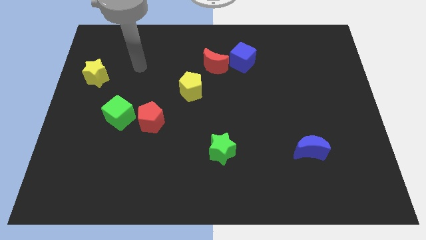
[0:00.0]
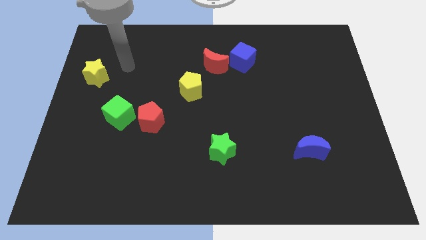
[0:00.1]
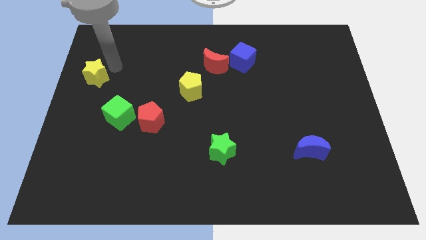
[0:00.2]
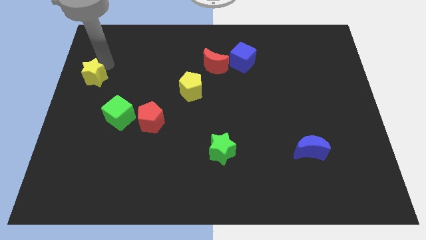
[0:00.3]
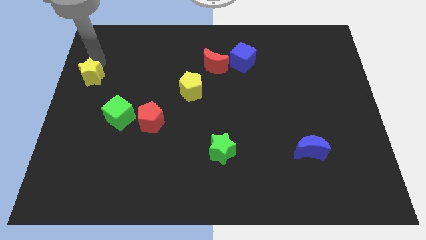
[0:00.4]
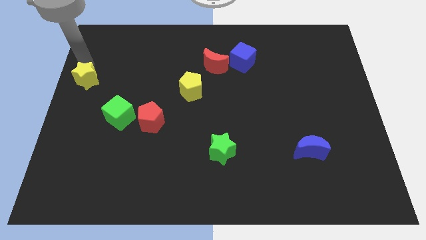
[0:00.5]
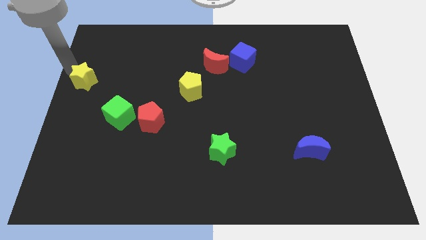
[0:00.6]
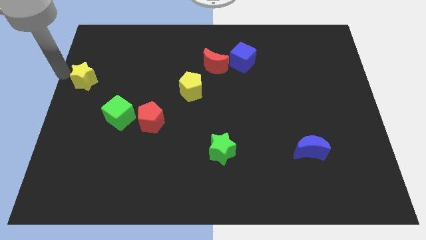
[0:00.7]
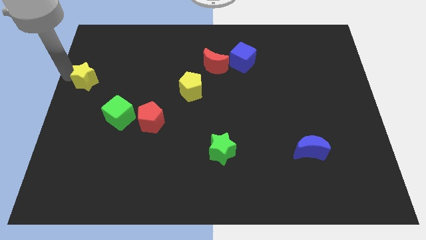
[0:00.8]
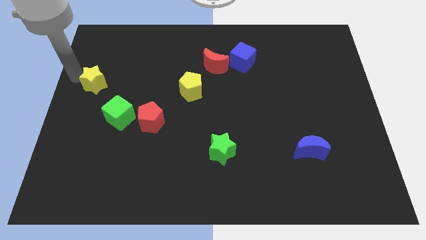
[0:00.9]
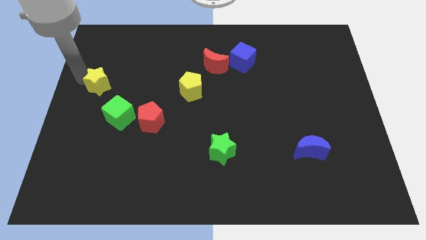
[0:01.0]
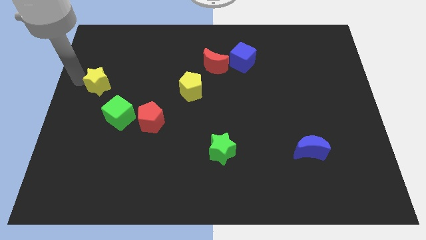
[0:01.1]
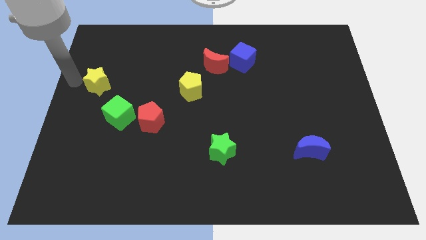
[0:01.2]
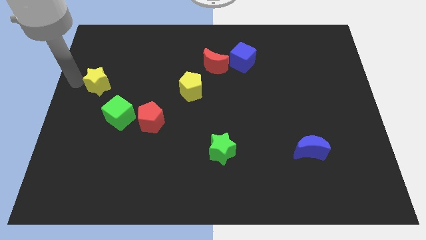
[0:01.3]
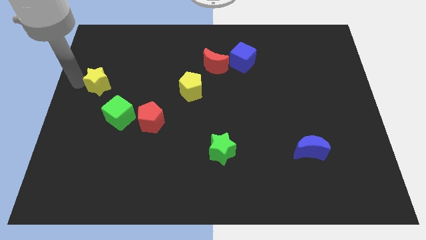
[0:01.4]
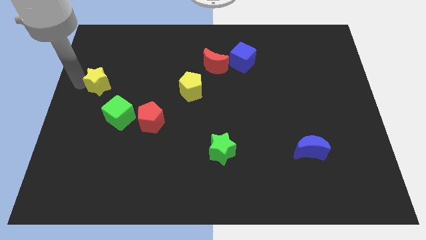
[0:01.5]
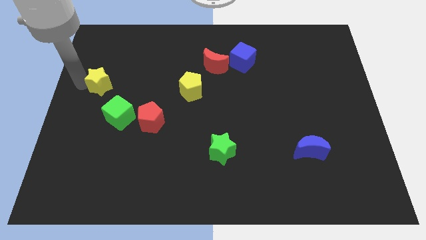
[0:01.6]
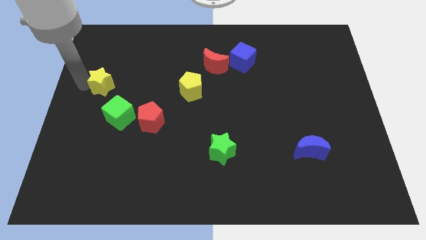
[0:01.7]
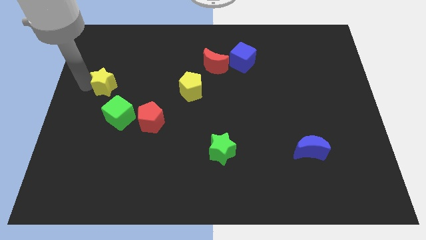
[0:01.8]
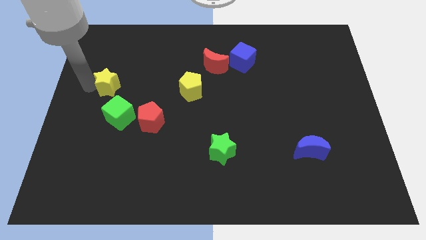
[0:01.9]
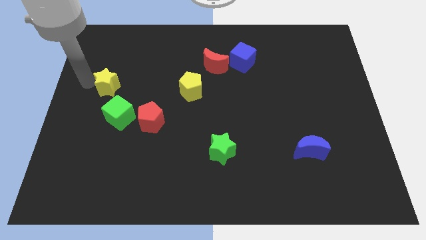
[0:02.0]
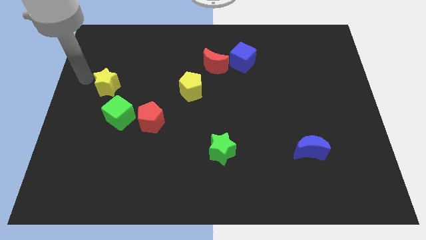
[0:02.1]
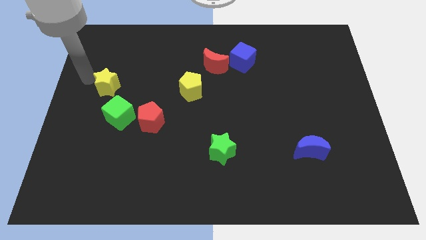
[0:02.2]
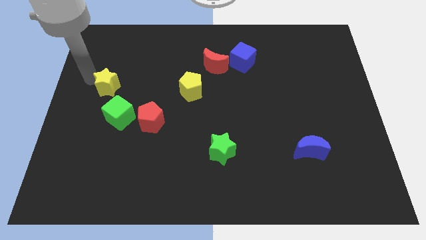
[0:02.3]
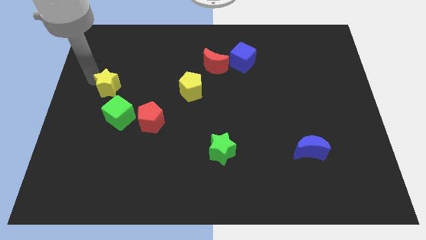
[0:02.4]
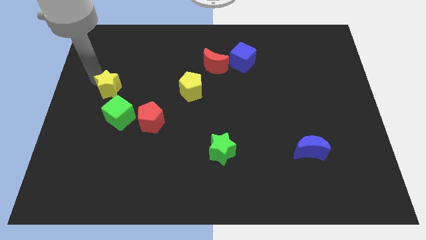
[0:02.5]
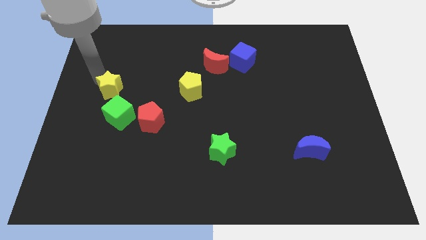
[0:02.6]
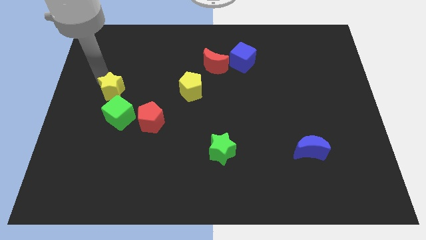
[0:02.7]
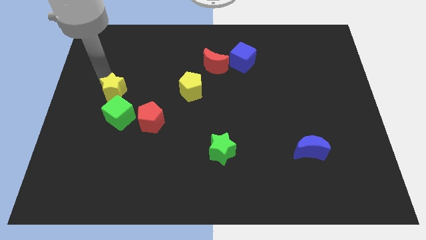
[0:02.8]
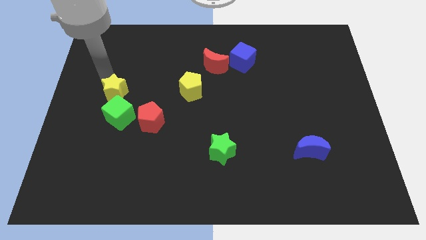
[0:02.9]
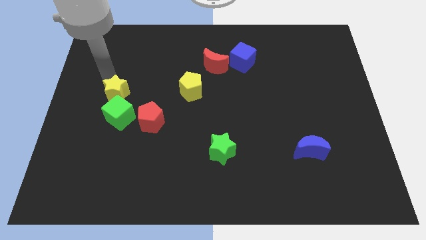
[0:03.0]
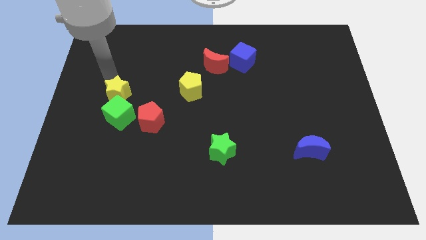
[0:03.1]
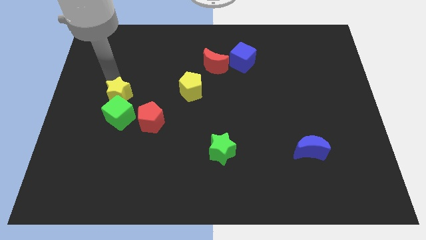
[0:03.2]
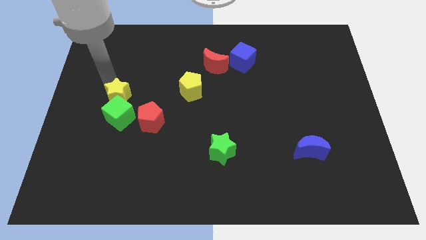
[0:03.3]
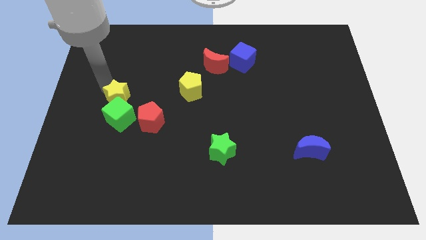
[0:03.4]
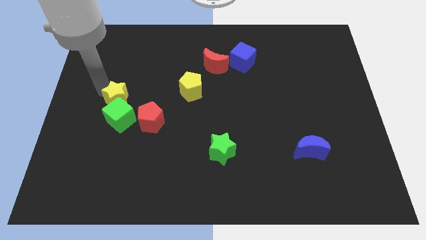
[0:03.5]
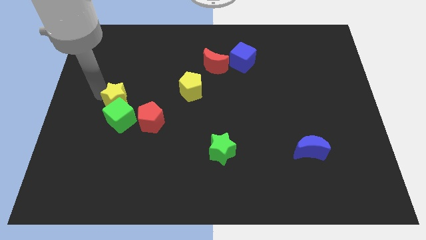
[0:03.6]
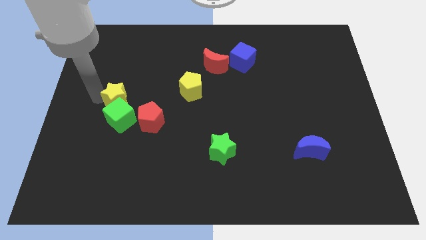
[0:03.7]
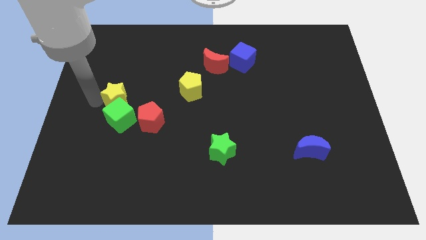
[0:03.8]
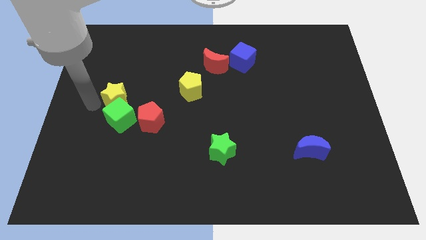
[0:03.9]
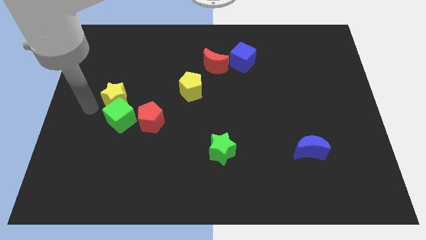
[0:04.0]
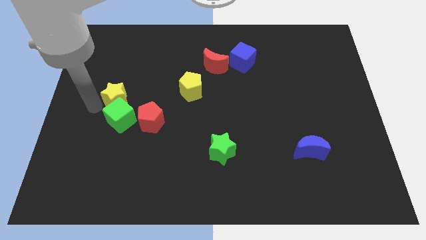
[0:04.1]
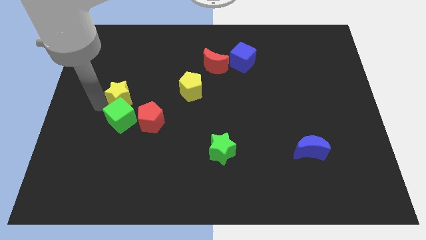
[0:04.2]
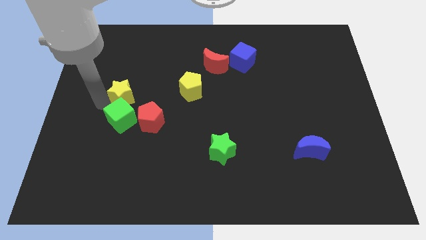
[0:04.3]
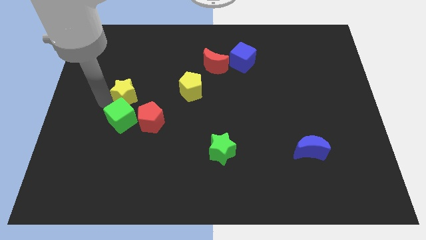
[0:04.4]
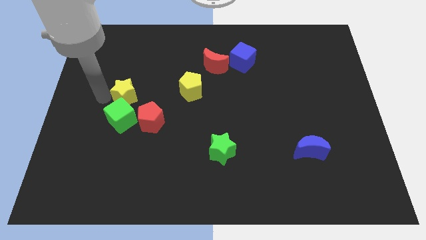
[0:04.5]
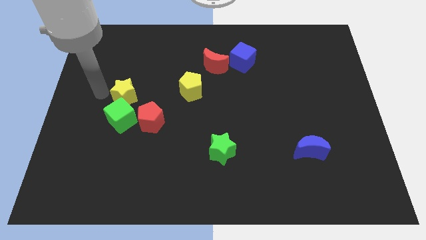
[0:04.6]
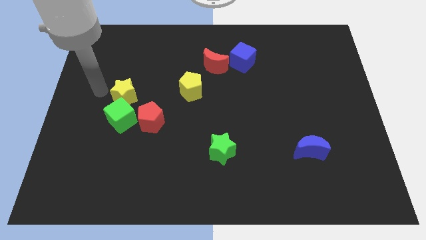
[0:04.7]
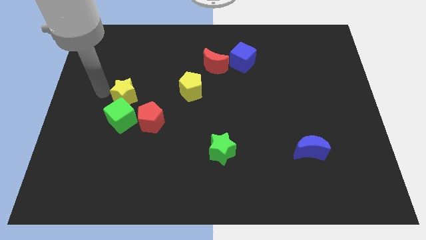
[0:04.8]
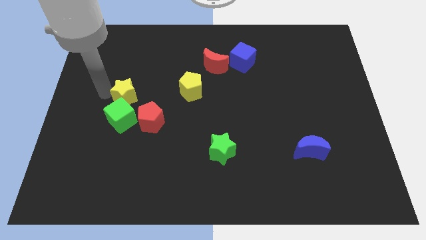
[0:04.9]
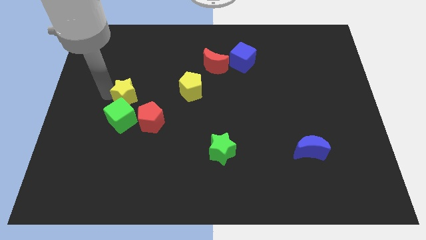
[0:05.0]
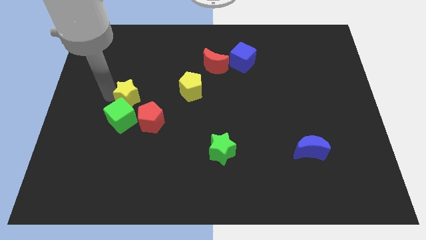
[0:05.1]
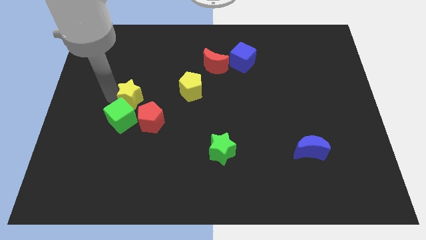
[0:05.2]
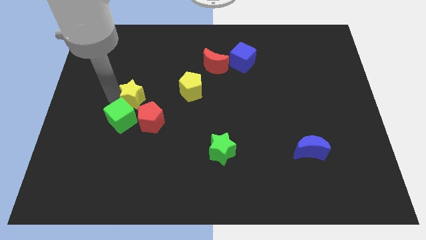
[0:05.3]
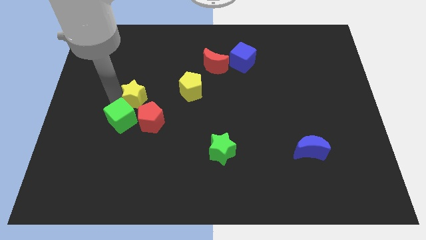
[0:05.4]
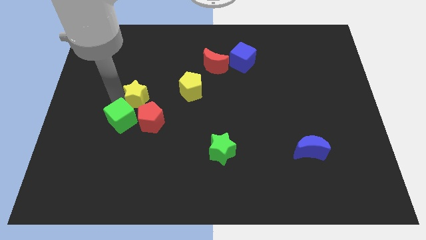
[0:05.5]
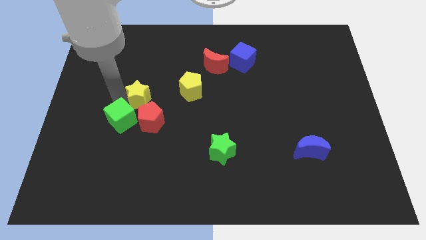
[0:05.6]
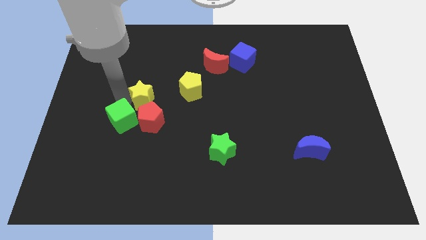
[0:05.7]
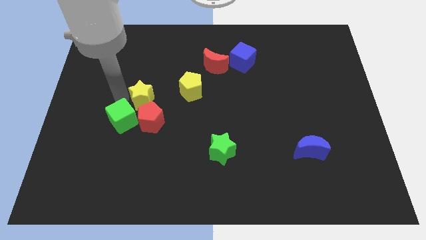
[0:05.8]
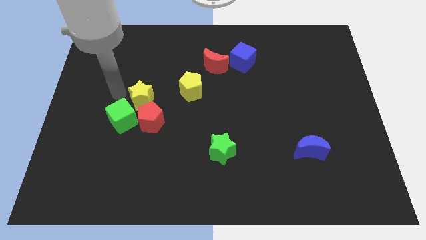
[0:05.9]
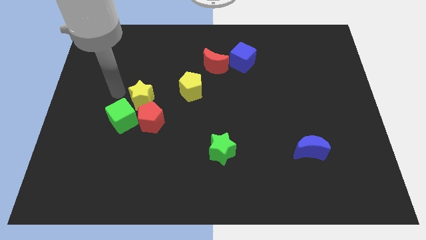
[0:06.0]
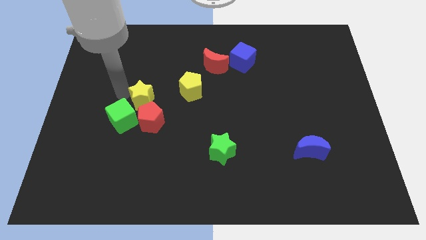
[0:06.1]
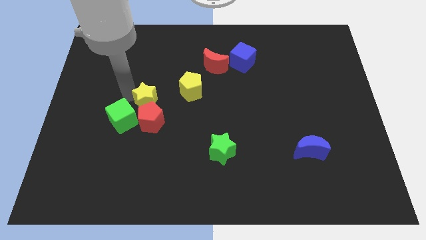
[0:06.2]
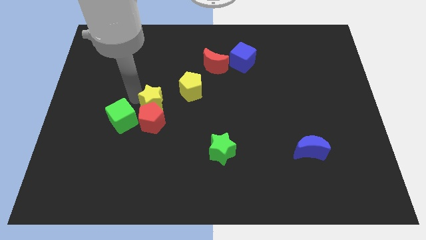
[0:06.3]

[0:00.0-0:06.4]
slide the yellow star diagonally down and to the left of the yellow pentagon

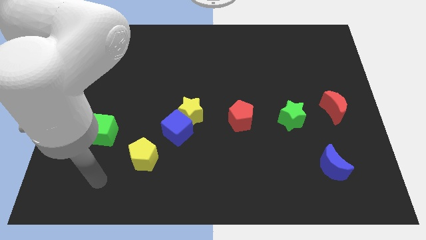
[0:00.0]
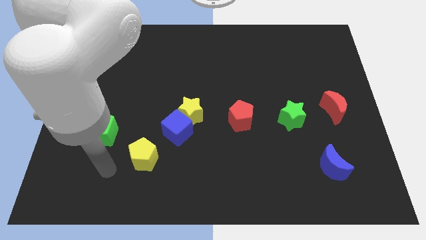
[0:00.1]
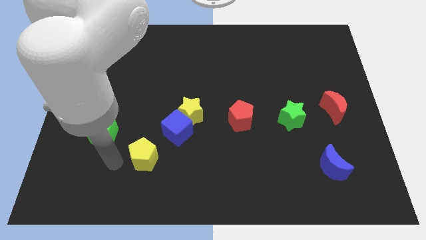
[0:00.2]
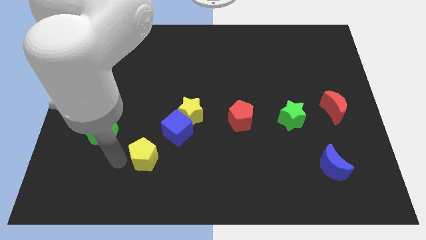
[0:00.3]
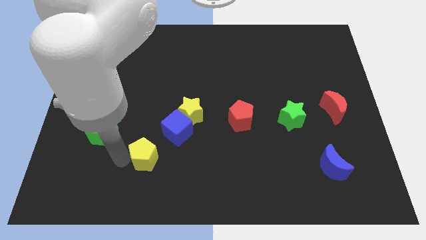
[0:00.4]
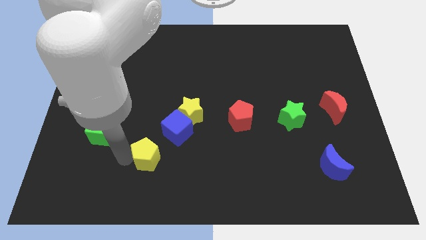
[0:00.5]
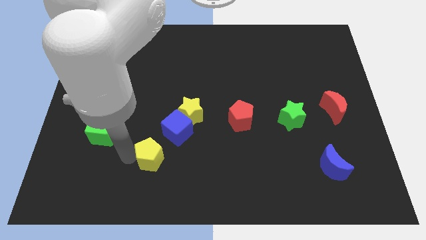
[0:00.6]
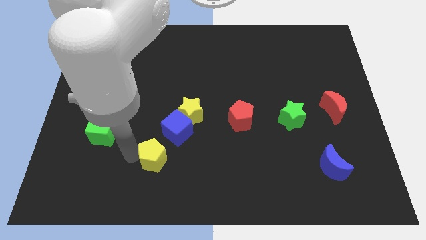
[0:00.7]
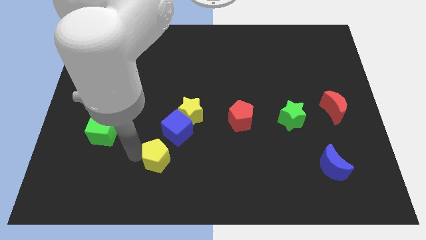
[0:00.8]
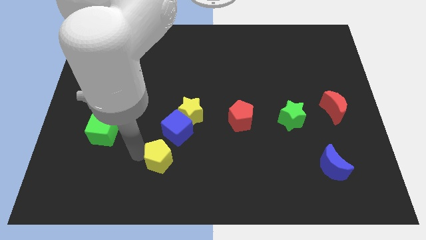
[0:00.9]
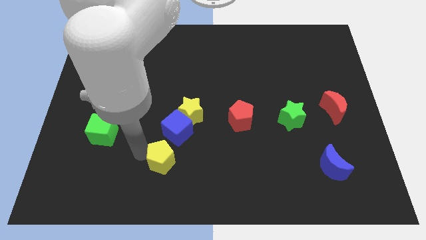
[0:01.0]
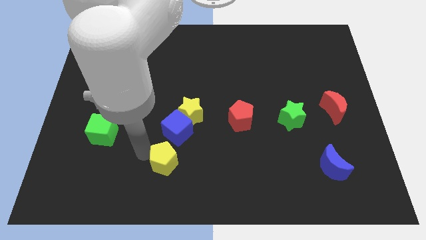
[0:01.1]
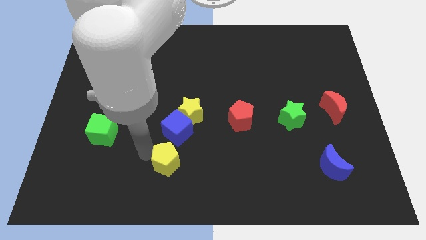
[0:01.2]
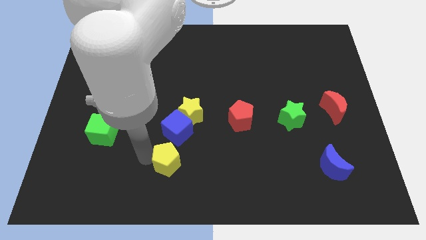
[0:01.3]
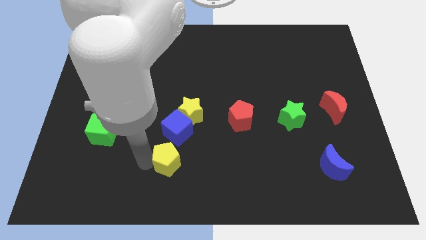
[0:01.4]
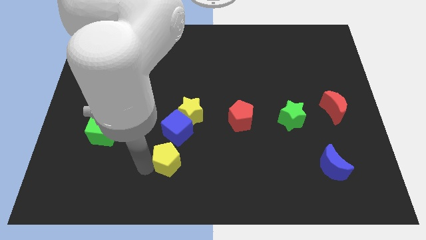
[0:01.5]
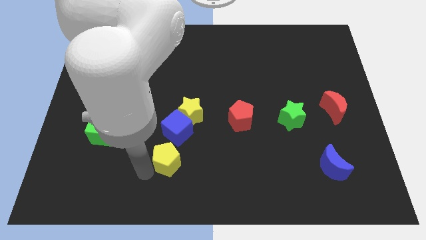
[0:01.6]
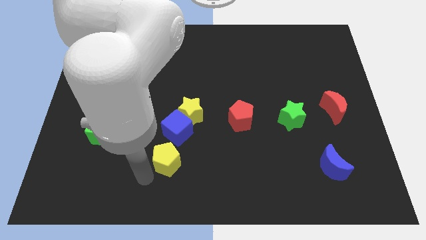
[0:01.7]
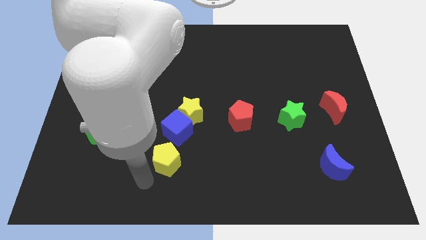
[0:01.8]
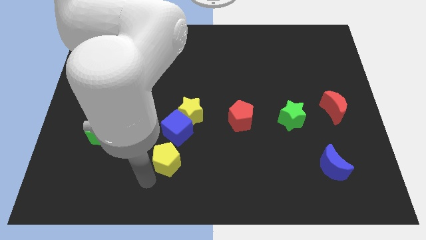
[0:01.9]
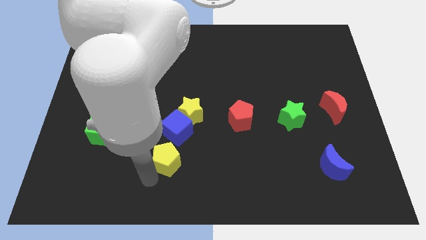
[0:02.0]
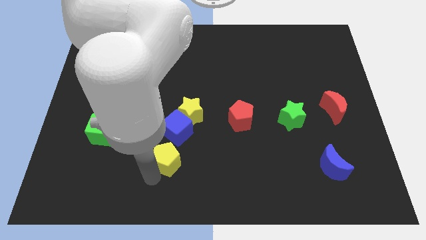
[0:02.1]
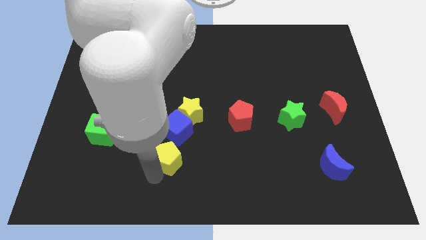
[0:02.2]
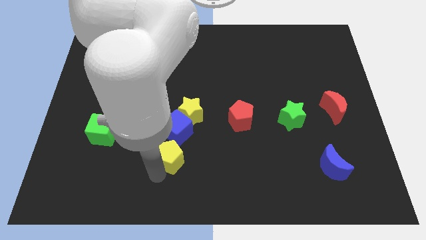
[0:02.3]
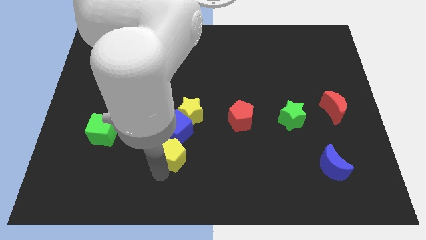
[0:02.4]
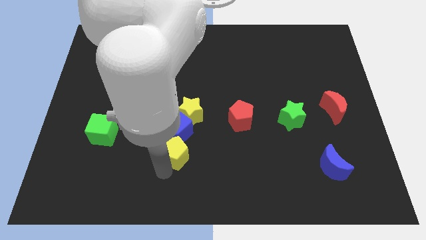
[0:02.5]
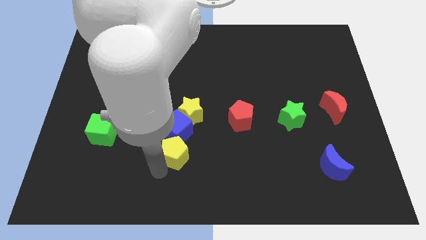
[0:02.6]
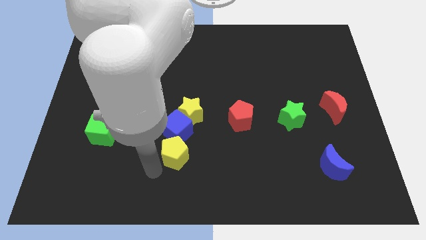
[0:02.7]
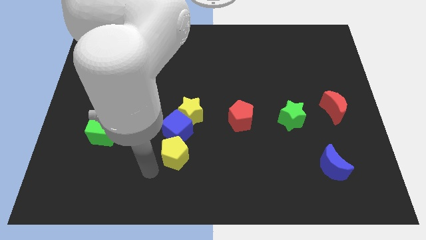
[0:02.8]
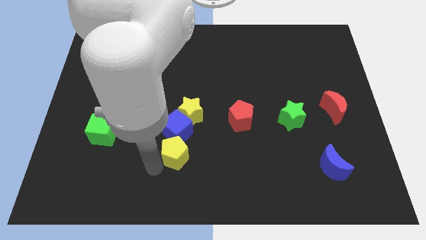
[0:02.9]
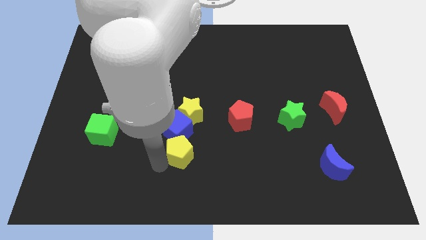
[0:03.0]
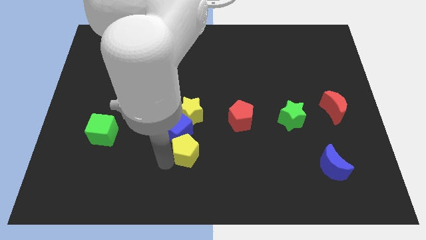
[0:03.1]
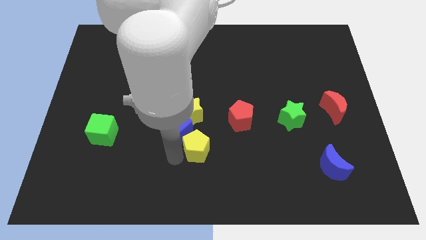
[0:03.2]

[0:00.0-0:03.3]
move the yellow pentagon diagonally down and to the left of the red pentagon
